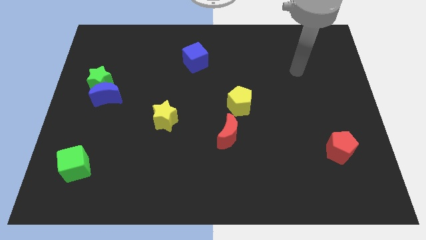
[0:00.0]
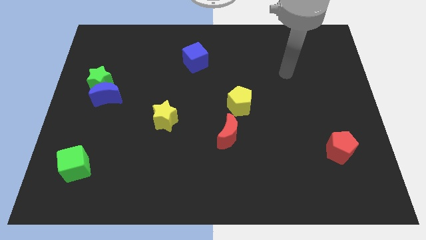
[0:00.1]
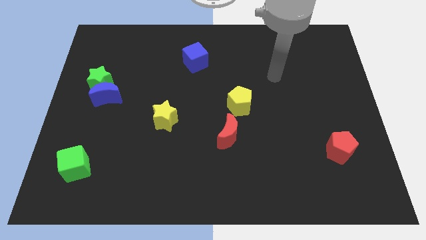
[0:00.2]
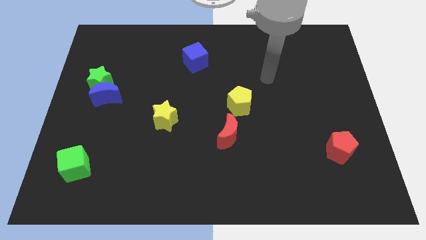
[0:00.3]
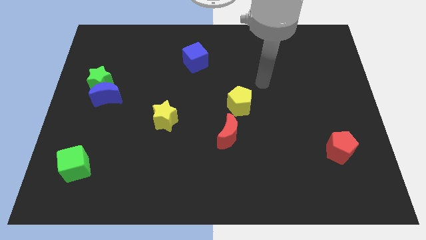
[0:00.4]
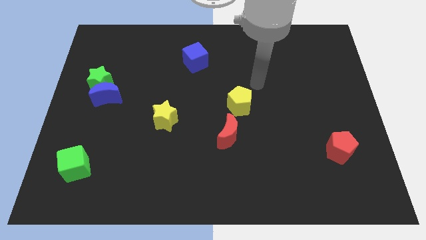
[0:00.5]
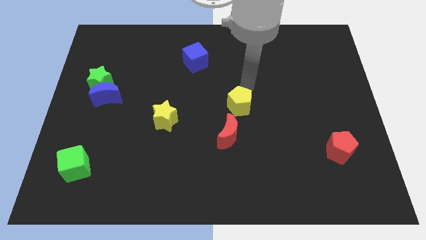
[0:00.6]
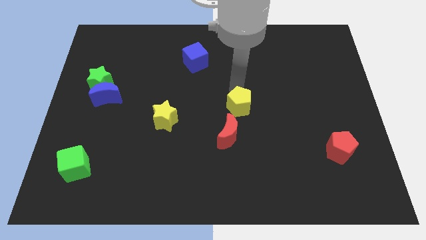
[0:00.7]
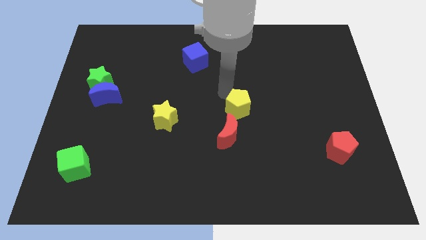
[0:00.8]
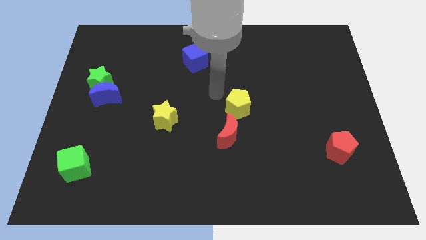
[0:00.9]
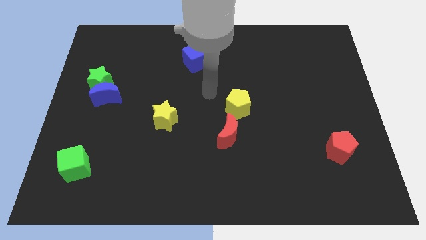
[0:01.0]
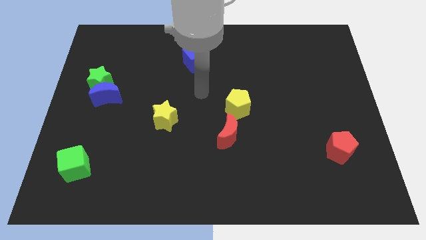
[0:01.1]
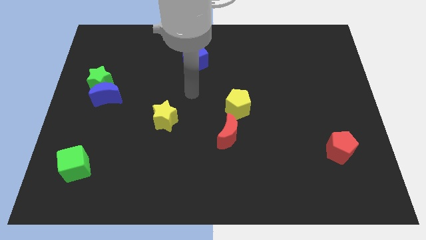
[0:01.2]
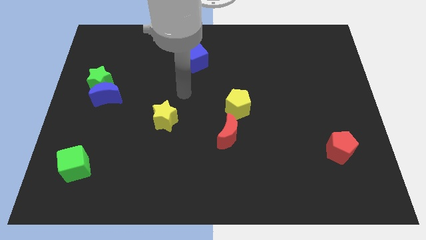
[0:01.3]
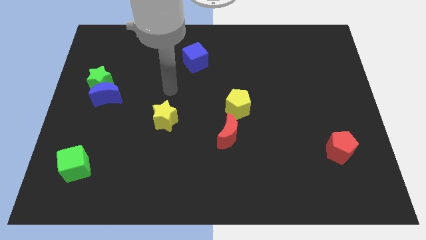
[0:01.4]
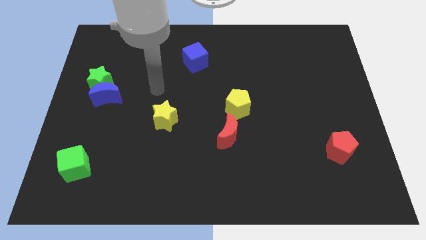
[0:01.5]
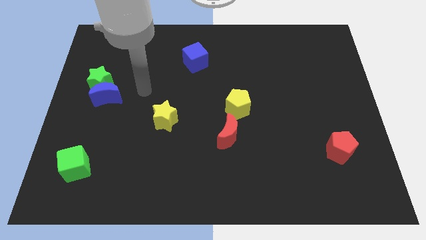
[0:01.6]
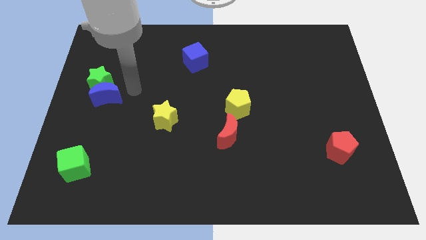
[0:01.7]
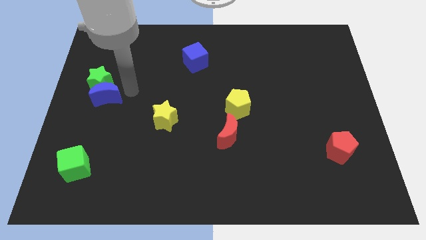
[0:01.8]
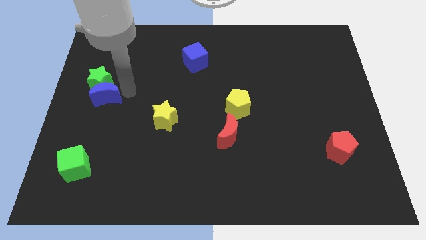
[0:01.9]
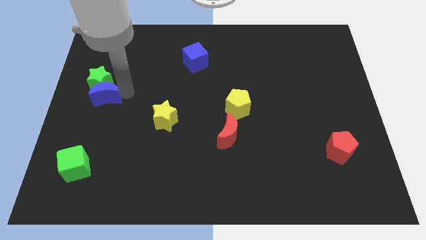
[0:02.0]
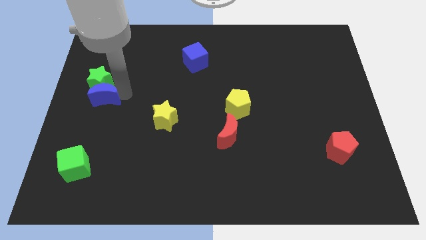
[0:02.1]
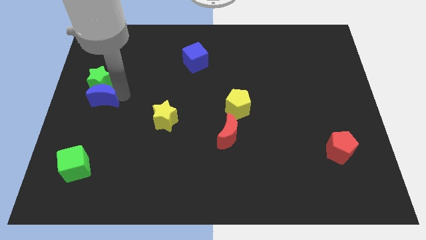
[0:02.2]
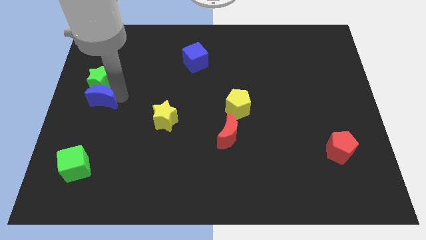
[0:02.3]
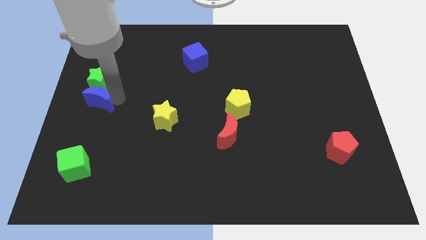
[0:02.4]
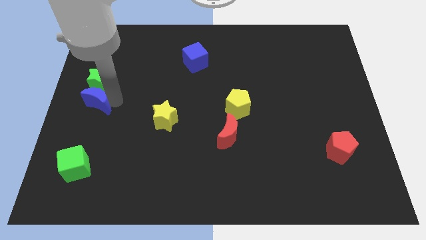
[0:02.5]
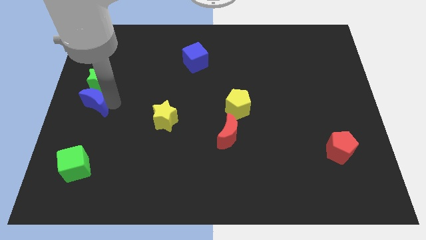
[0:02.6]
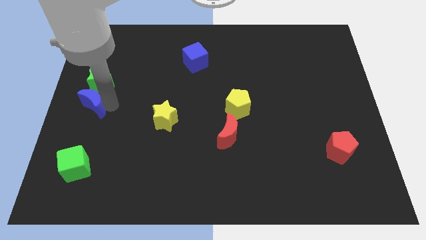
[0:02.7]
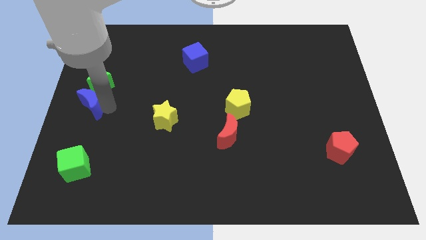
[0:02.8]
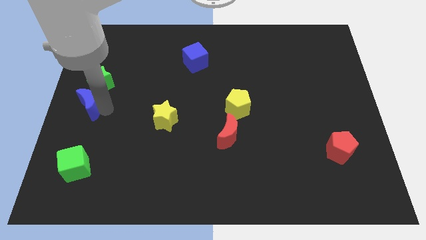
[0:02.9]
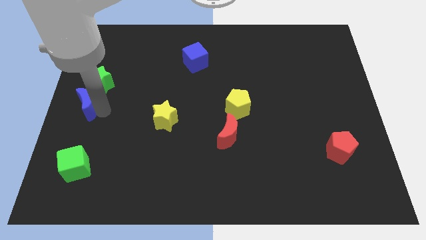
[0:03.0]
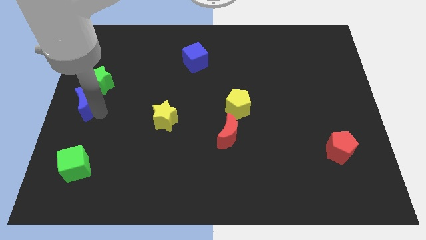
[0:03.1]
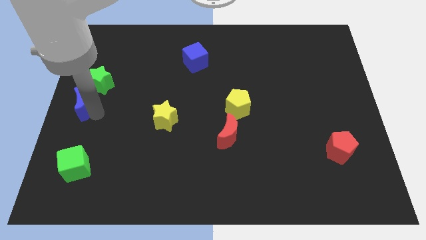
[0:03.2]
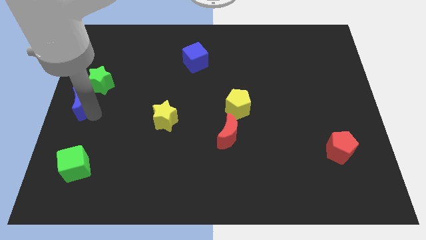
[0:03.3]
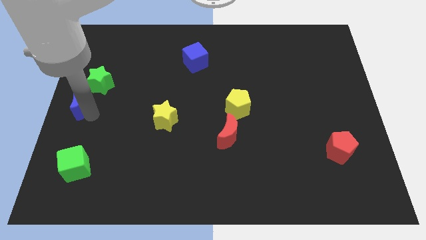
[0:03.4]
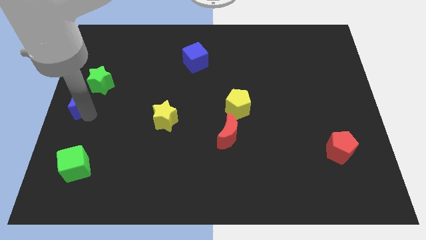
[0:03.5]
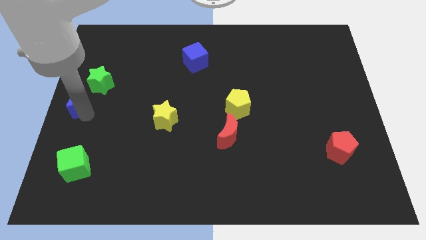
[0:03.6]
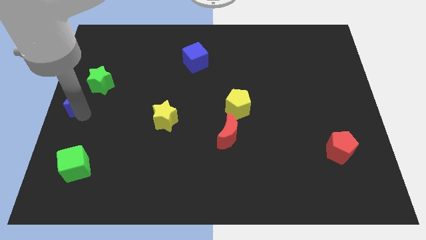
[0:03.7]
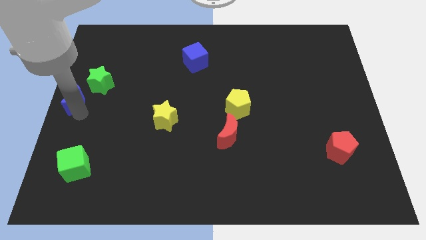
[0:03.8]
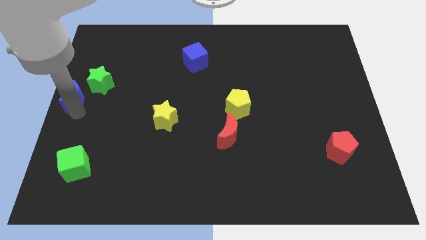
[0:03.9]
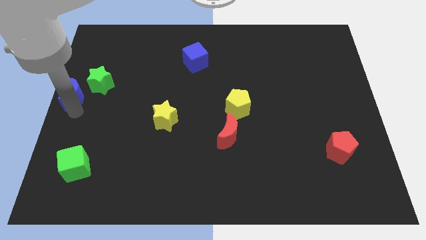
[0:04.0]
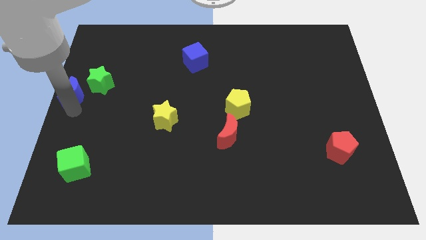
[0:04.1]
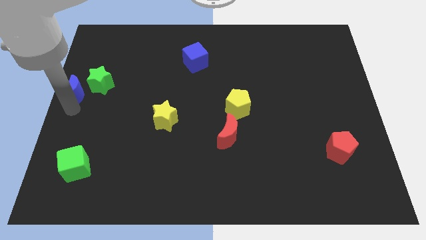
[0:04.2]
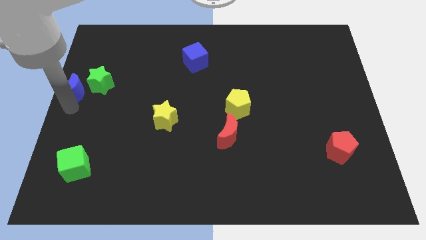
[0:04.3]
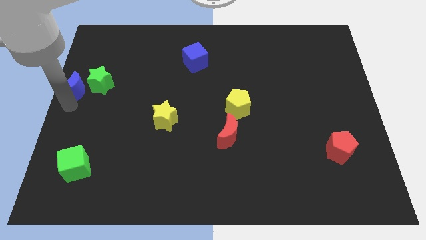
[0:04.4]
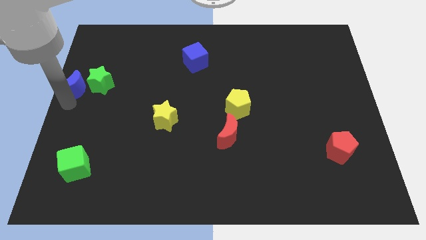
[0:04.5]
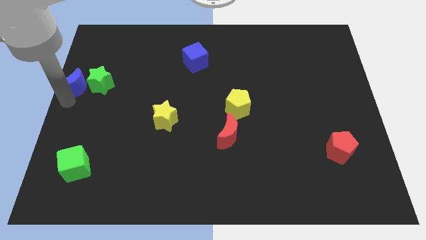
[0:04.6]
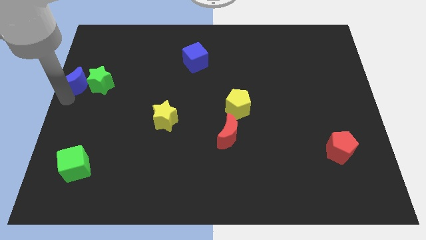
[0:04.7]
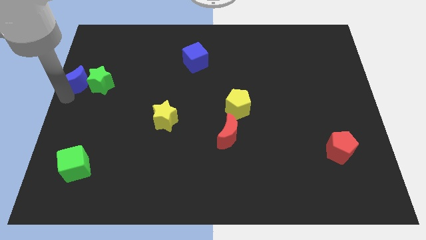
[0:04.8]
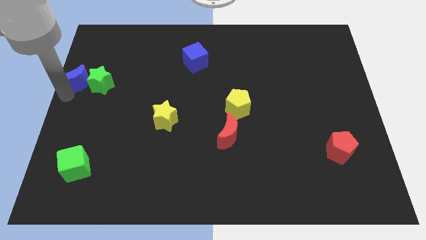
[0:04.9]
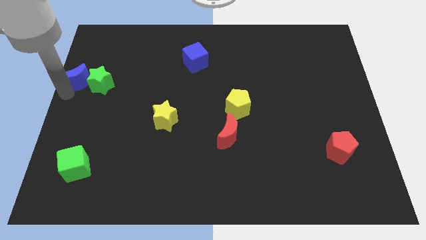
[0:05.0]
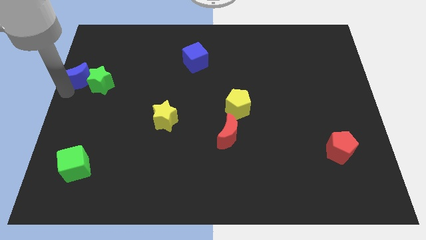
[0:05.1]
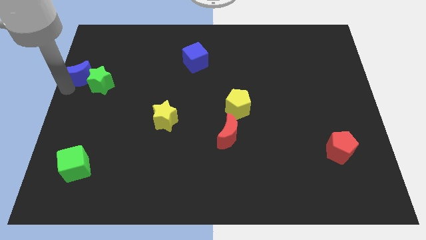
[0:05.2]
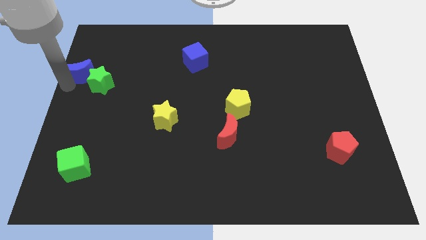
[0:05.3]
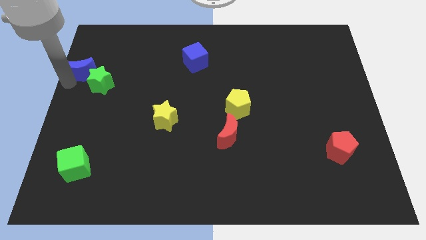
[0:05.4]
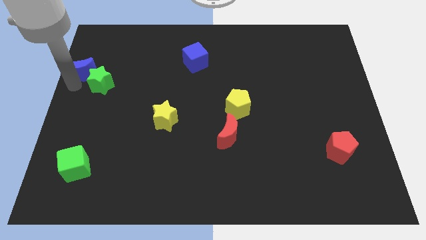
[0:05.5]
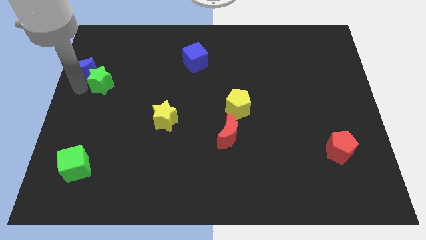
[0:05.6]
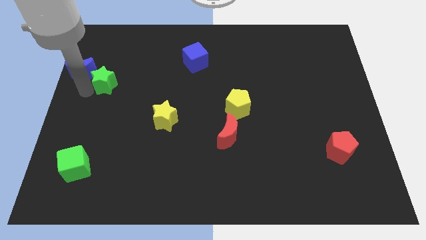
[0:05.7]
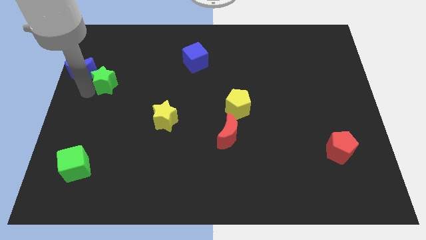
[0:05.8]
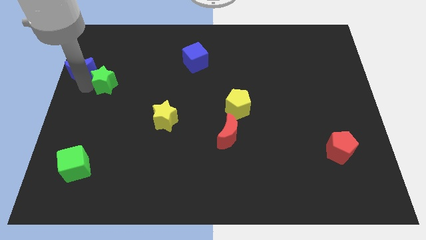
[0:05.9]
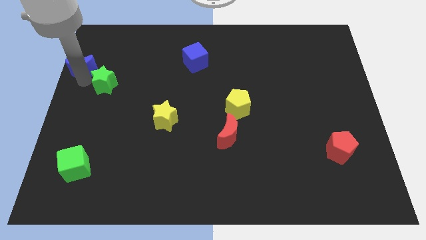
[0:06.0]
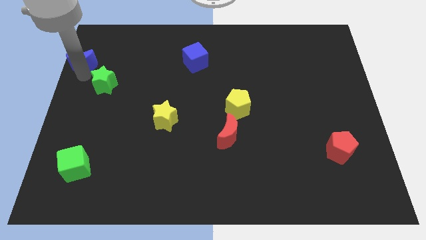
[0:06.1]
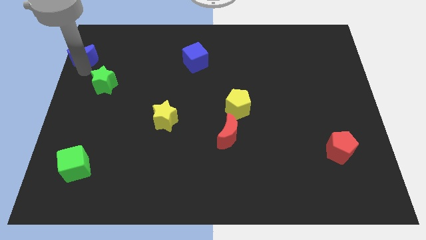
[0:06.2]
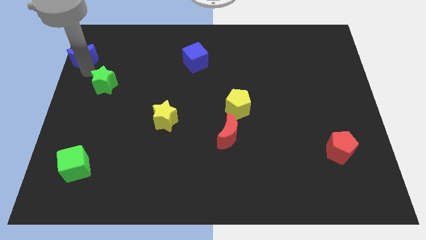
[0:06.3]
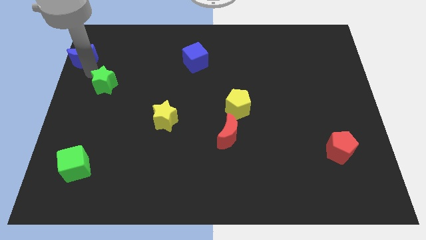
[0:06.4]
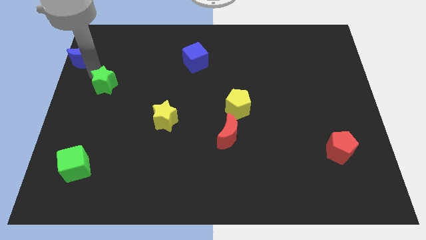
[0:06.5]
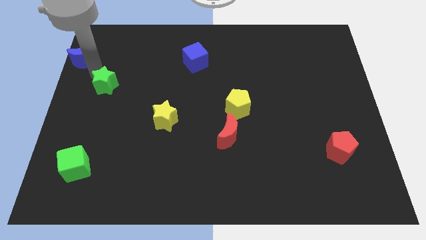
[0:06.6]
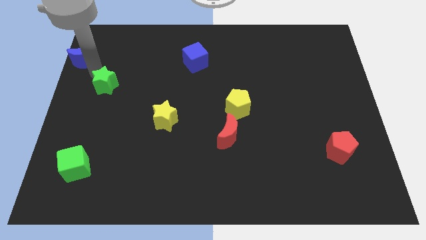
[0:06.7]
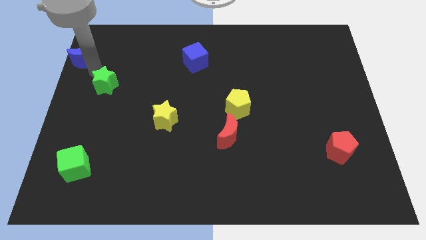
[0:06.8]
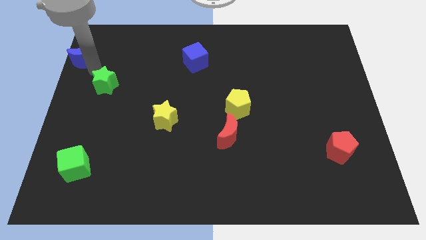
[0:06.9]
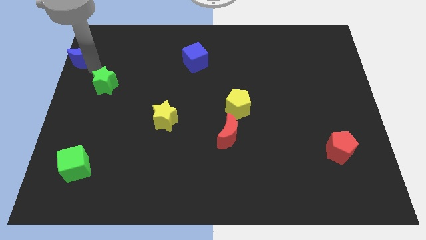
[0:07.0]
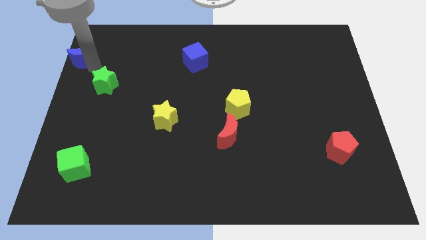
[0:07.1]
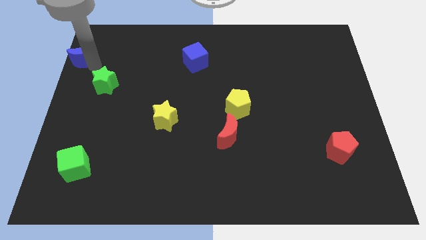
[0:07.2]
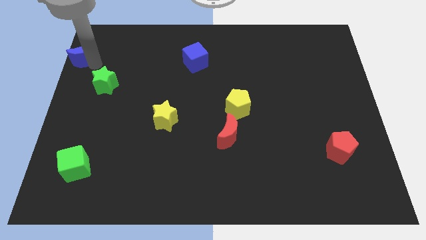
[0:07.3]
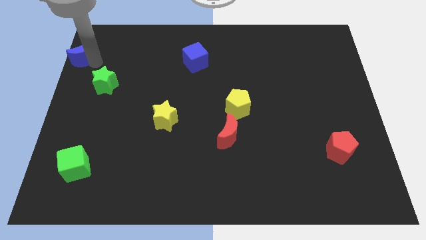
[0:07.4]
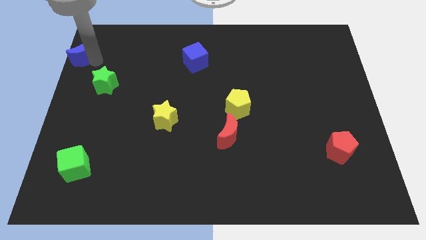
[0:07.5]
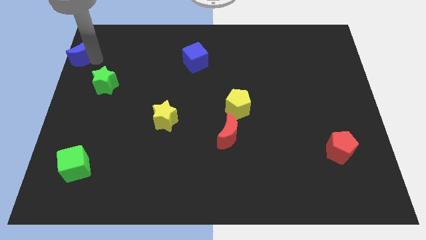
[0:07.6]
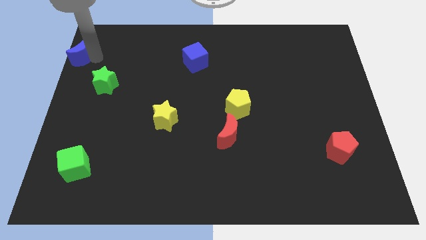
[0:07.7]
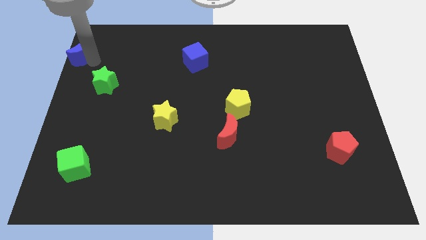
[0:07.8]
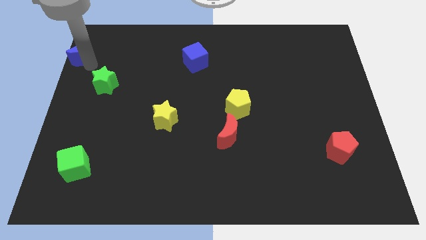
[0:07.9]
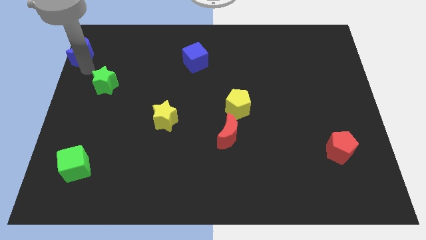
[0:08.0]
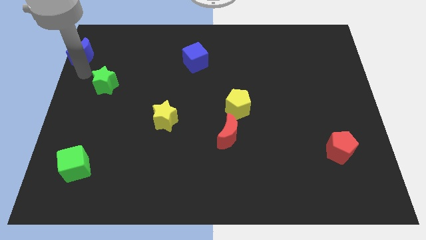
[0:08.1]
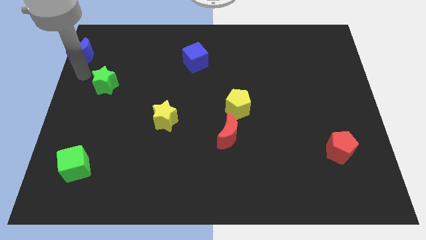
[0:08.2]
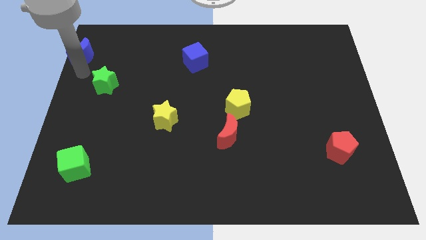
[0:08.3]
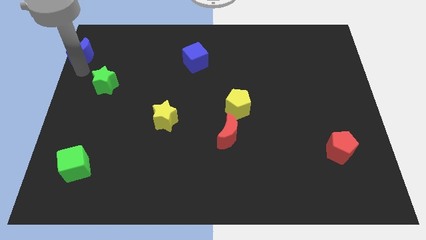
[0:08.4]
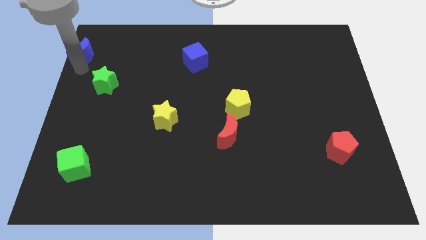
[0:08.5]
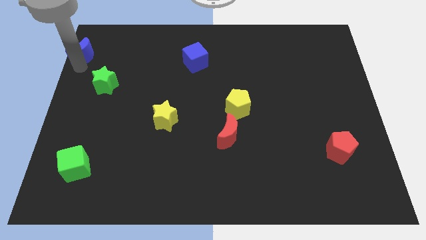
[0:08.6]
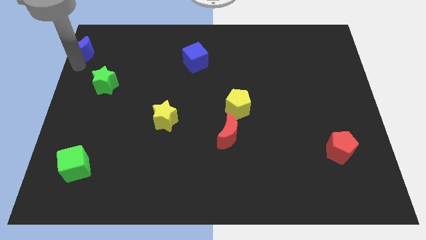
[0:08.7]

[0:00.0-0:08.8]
push the blue moon to the upper left corner
